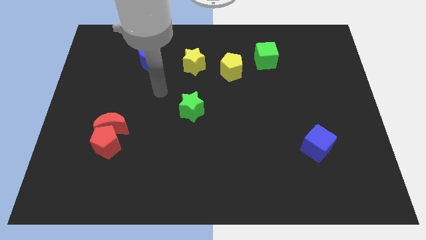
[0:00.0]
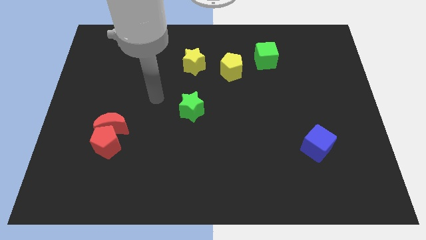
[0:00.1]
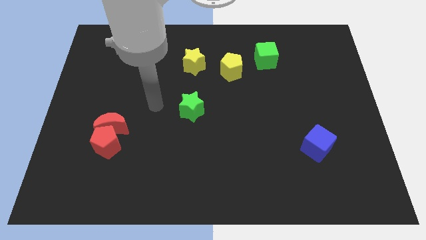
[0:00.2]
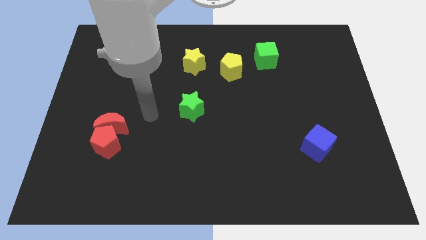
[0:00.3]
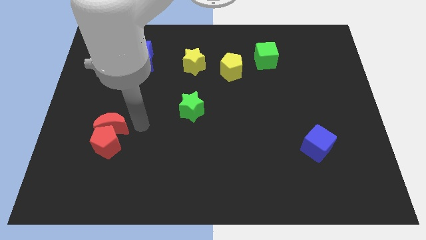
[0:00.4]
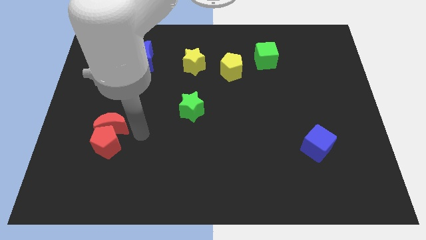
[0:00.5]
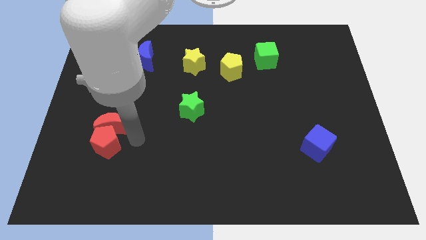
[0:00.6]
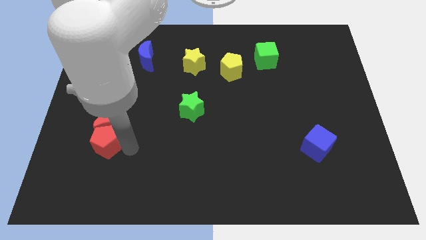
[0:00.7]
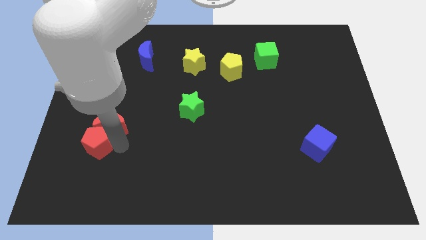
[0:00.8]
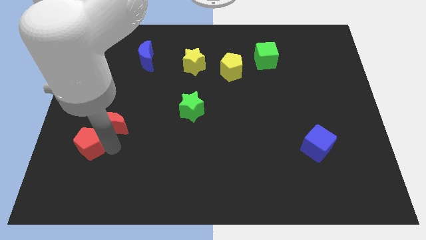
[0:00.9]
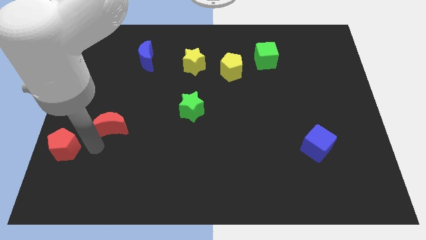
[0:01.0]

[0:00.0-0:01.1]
separate the red moon from the red pentagon

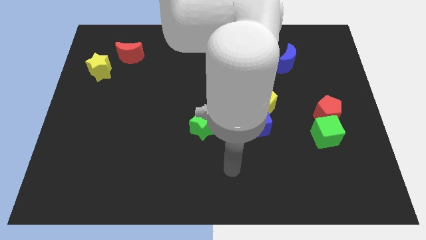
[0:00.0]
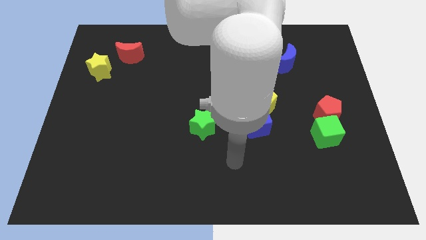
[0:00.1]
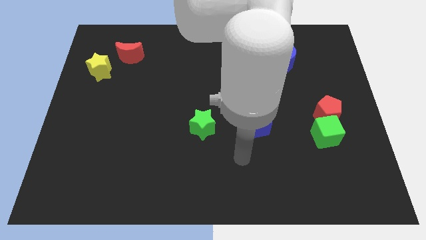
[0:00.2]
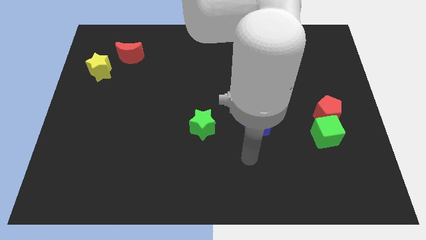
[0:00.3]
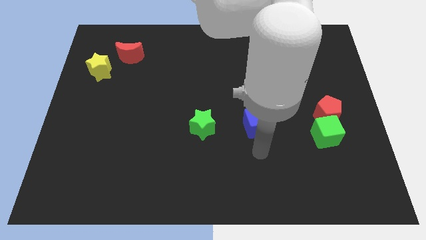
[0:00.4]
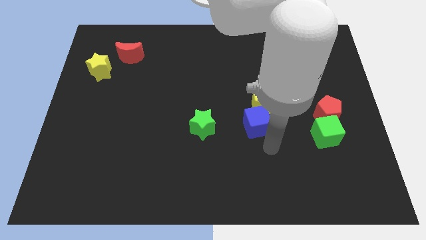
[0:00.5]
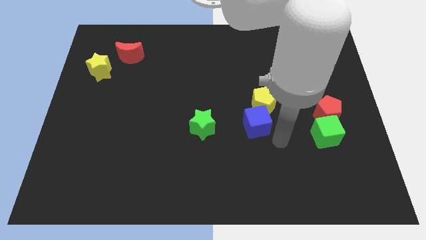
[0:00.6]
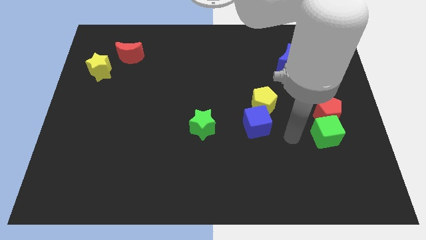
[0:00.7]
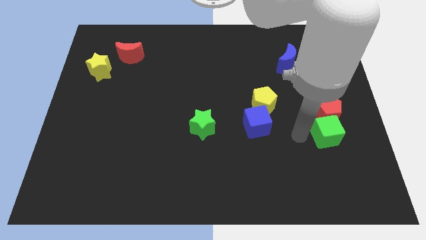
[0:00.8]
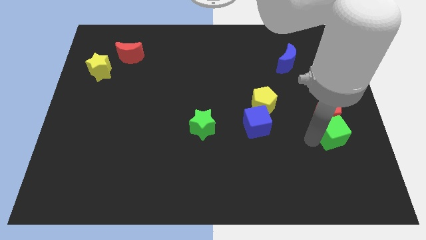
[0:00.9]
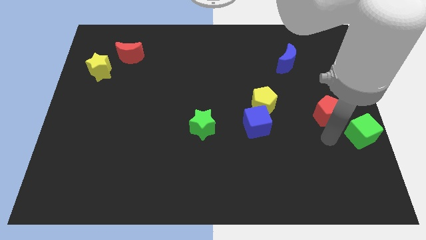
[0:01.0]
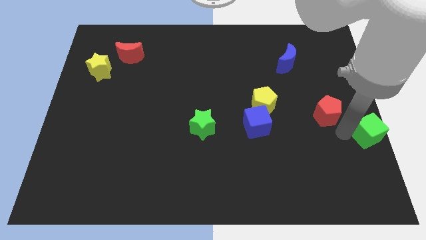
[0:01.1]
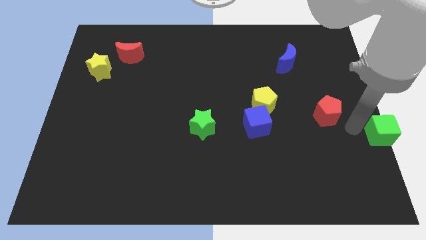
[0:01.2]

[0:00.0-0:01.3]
separate the red pentagon from the green cube

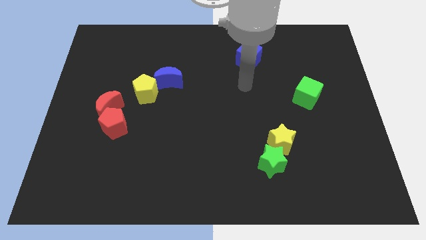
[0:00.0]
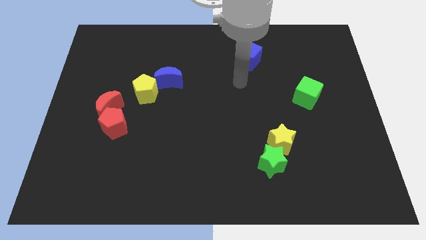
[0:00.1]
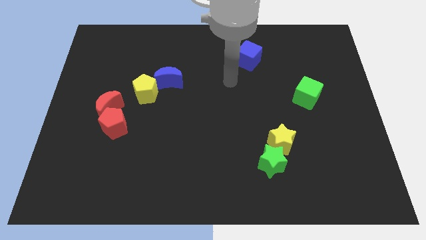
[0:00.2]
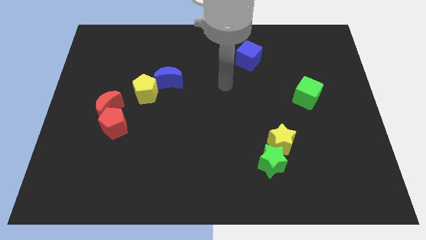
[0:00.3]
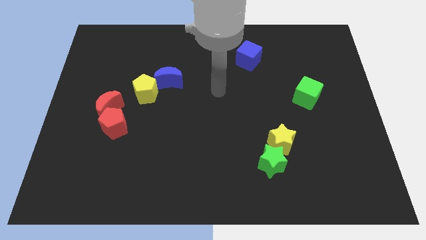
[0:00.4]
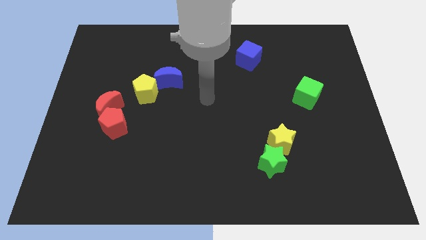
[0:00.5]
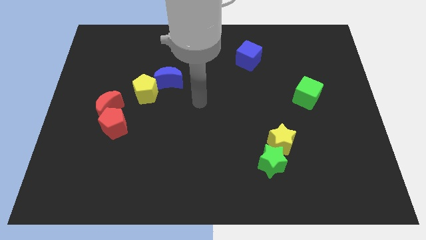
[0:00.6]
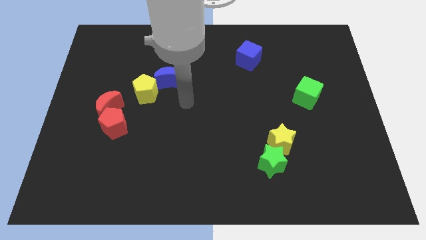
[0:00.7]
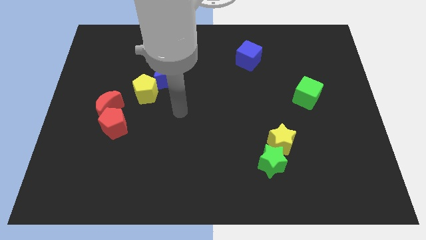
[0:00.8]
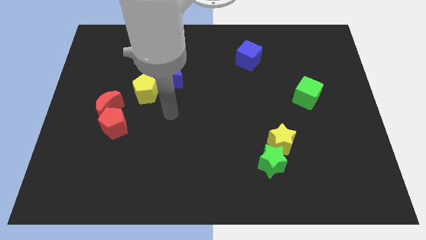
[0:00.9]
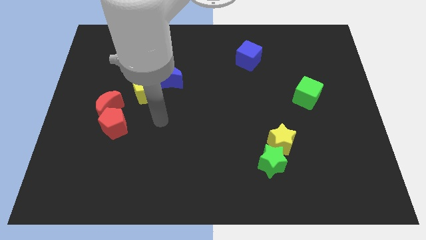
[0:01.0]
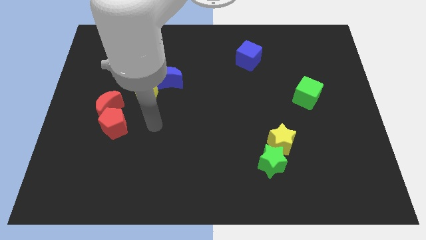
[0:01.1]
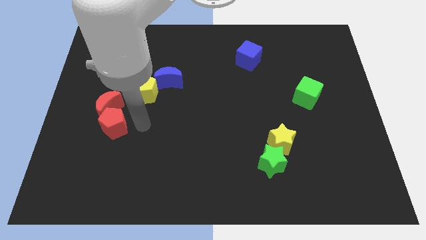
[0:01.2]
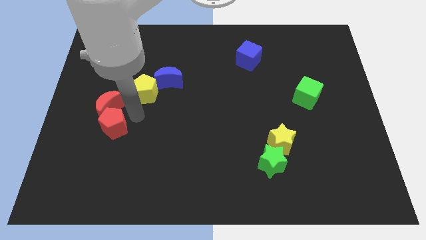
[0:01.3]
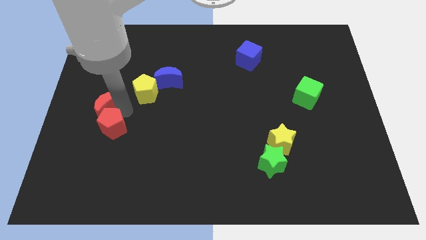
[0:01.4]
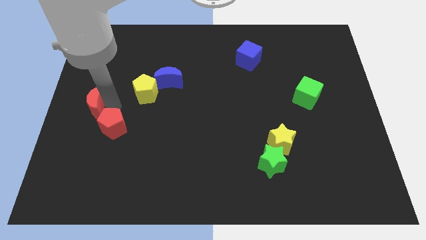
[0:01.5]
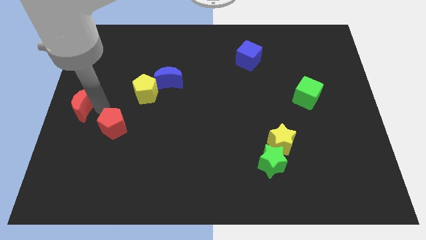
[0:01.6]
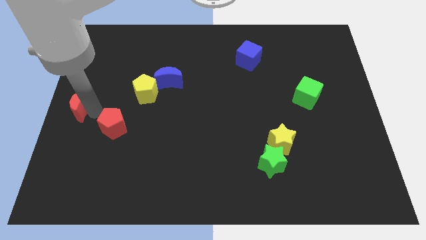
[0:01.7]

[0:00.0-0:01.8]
pull the red pentagon apart from the red moon

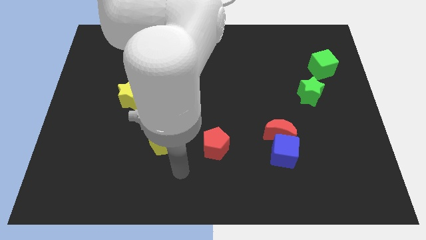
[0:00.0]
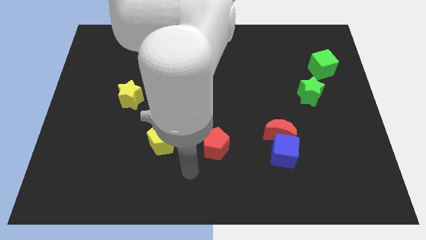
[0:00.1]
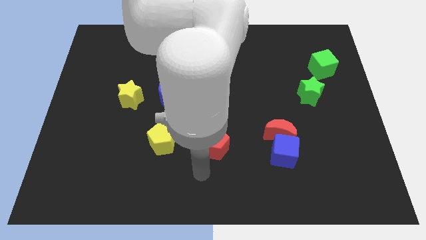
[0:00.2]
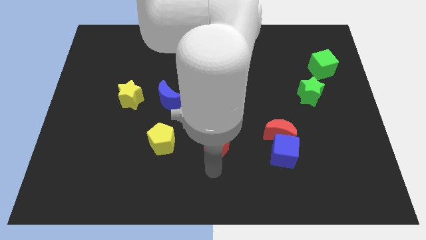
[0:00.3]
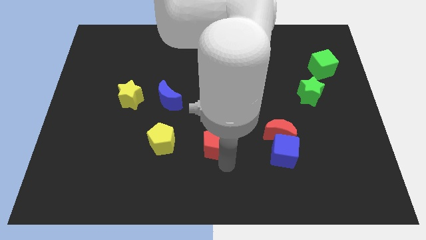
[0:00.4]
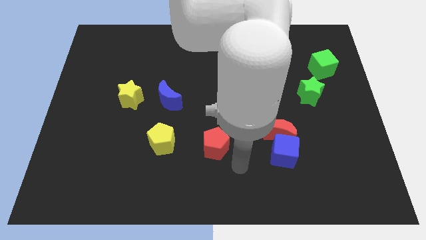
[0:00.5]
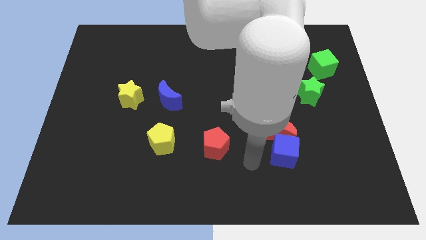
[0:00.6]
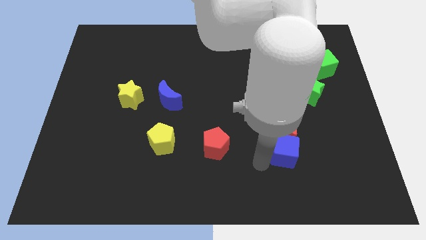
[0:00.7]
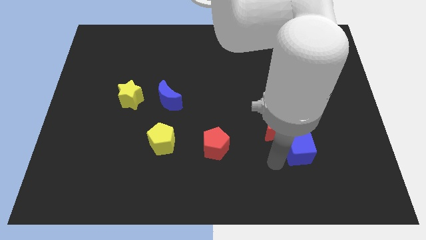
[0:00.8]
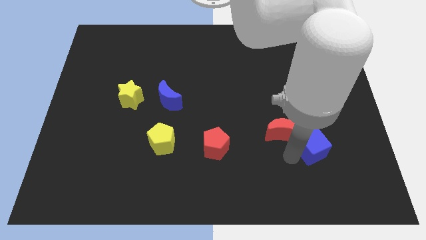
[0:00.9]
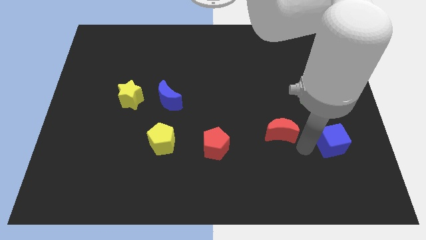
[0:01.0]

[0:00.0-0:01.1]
move the red moon away from the blue cube

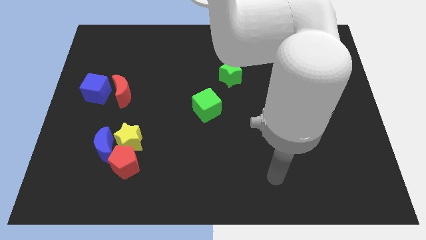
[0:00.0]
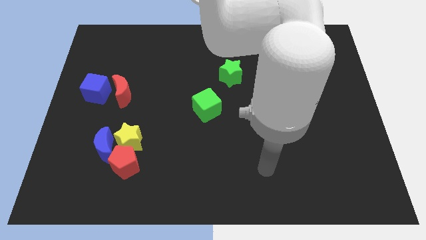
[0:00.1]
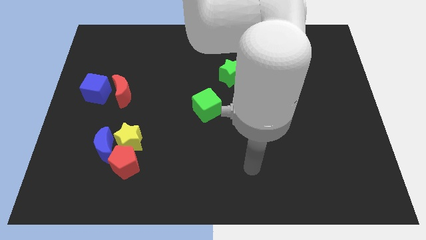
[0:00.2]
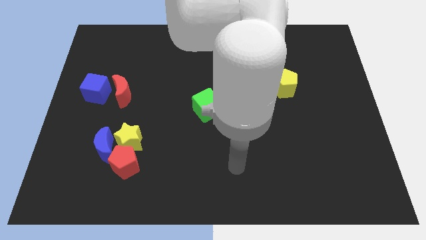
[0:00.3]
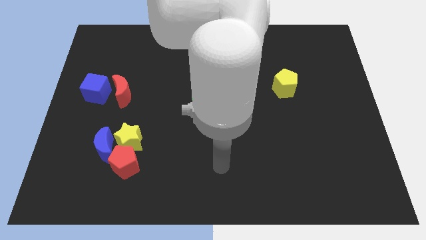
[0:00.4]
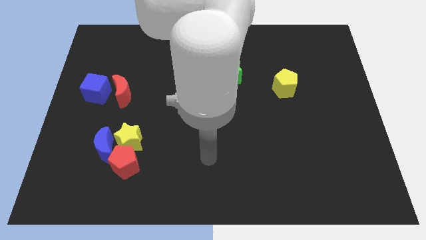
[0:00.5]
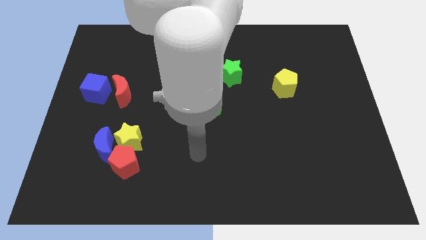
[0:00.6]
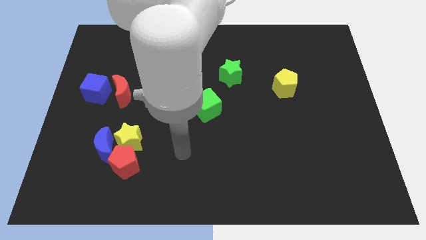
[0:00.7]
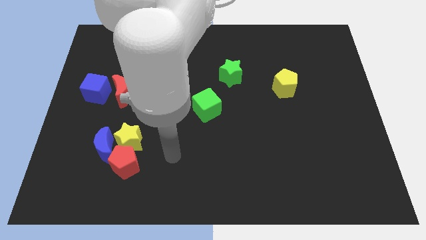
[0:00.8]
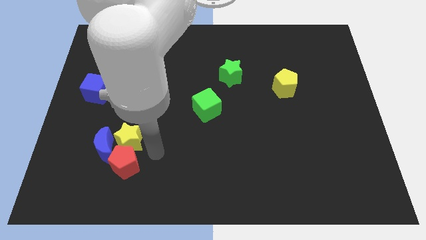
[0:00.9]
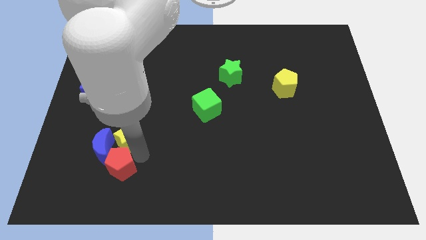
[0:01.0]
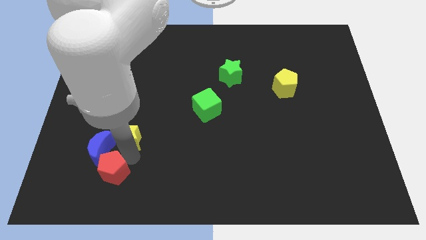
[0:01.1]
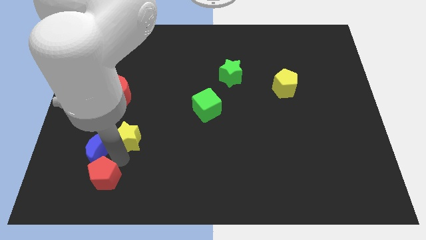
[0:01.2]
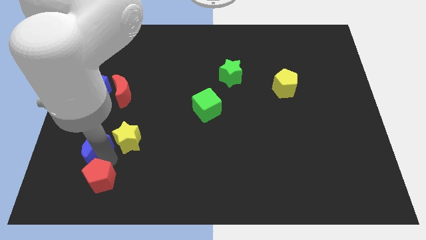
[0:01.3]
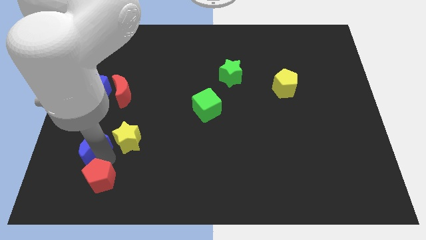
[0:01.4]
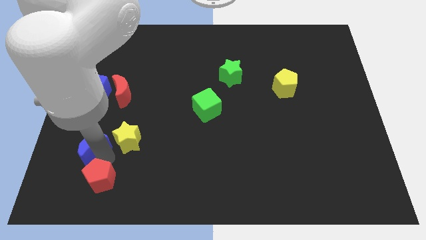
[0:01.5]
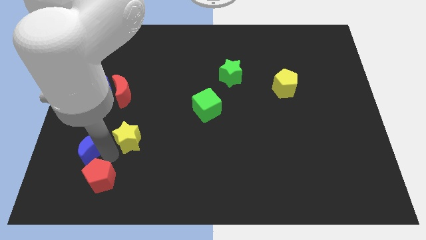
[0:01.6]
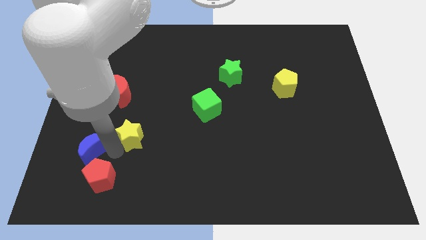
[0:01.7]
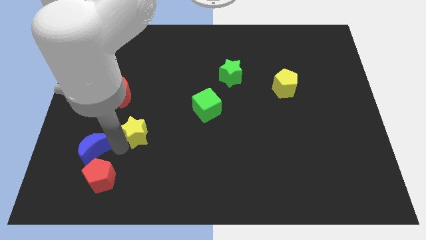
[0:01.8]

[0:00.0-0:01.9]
pull the yellow star apart from the blue moon and red pentagon

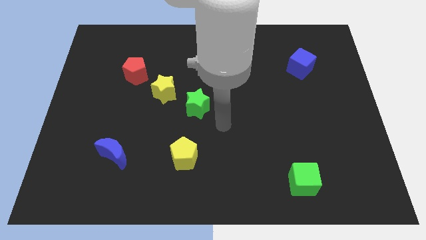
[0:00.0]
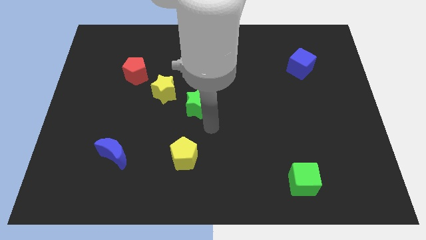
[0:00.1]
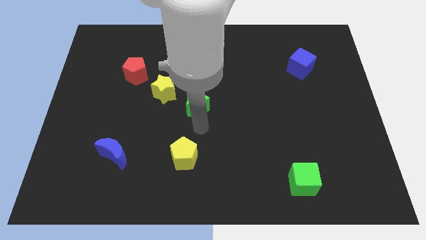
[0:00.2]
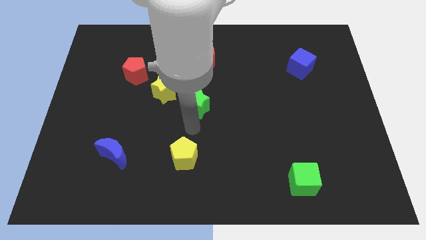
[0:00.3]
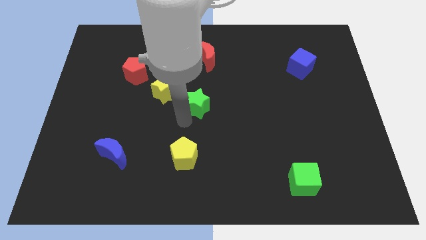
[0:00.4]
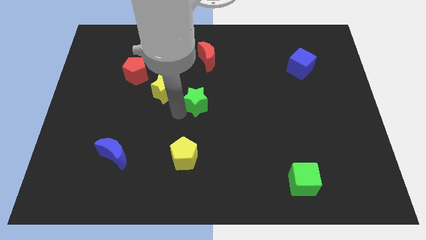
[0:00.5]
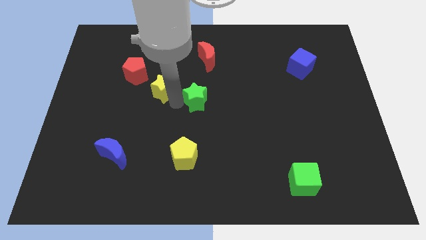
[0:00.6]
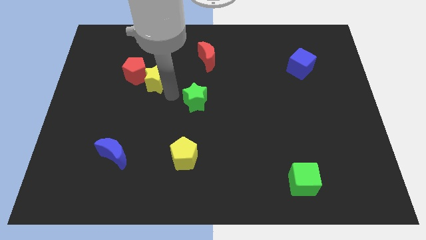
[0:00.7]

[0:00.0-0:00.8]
move the green star away from the yellow star

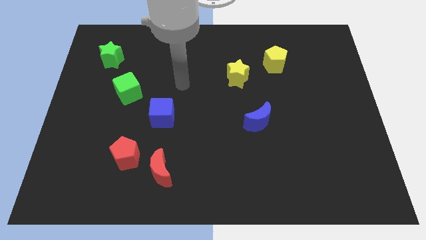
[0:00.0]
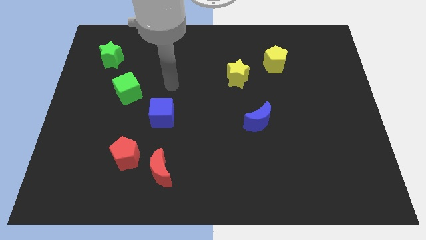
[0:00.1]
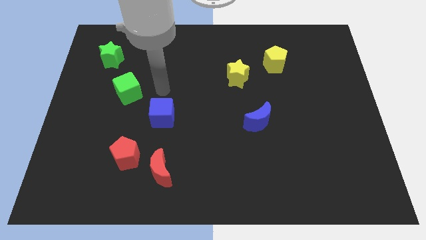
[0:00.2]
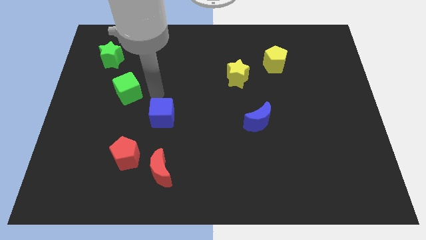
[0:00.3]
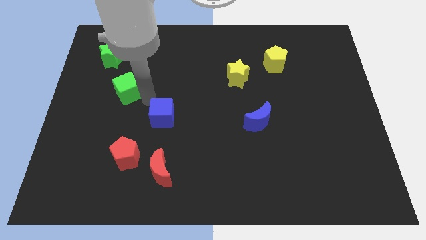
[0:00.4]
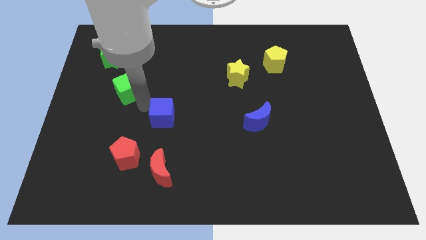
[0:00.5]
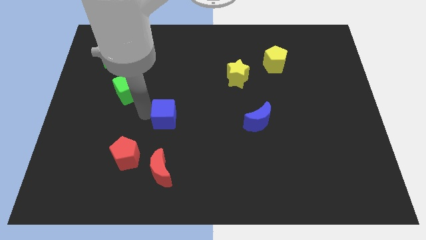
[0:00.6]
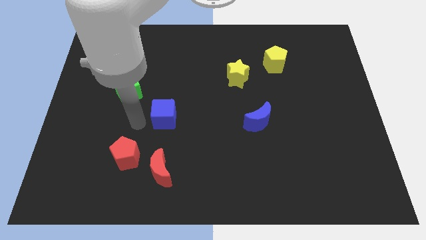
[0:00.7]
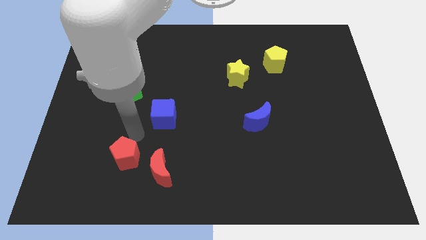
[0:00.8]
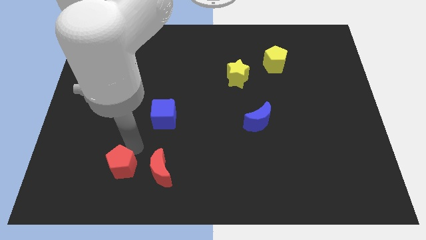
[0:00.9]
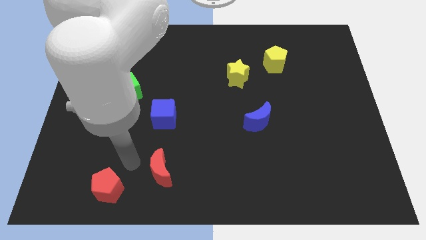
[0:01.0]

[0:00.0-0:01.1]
move the red moon away from the red pentagon

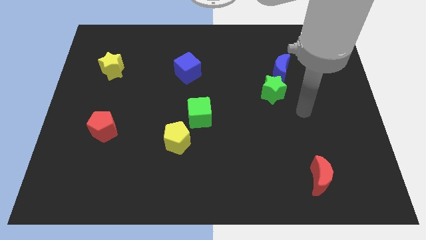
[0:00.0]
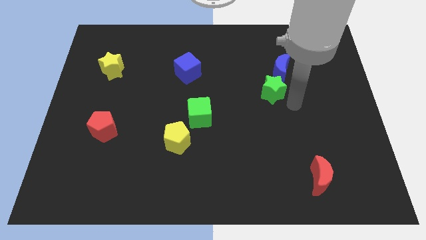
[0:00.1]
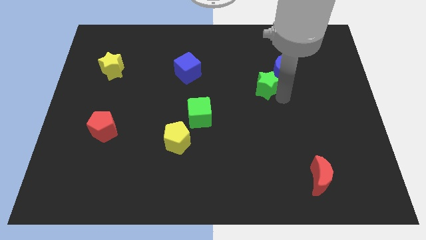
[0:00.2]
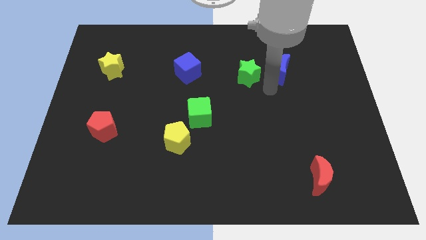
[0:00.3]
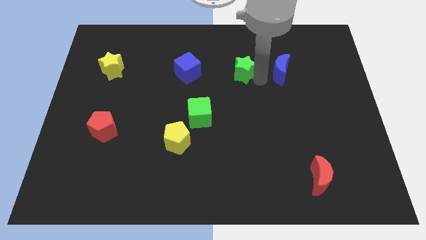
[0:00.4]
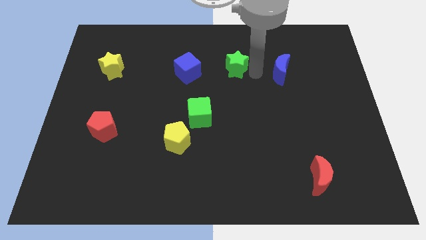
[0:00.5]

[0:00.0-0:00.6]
separate the blue moon from the green star
